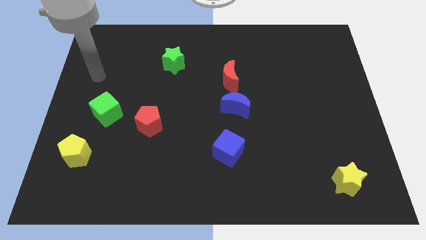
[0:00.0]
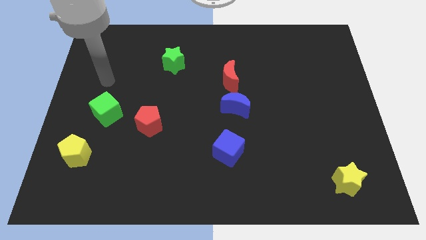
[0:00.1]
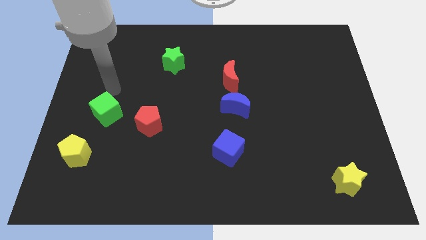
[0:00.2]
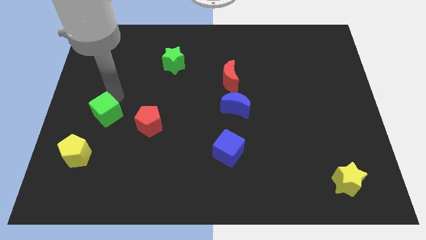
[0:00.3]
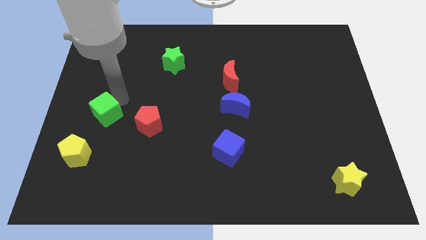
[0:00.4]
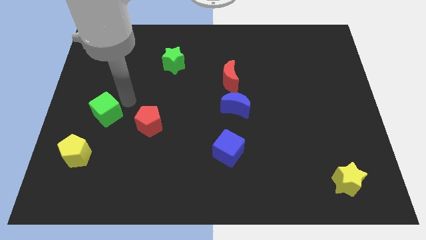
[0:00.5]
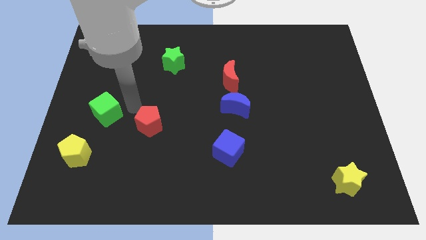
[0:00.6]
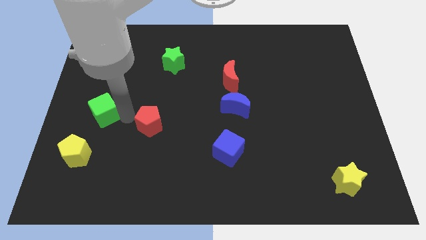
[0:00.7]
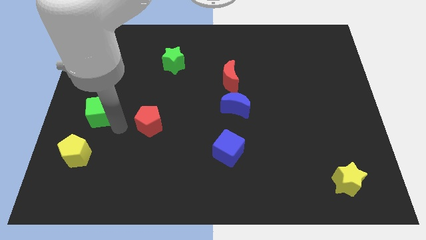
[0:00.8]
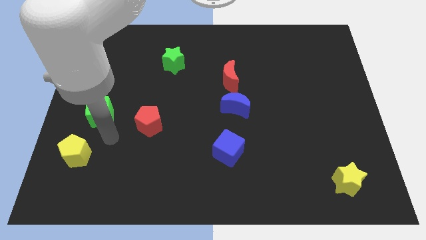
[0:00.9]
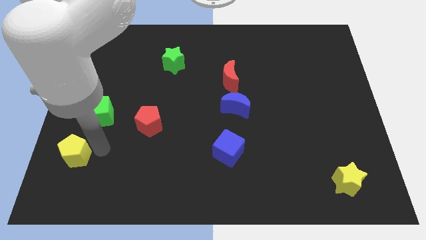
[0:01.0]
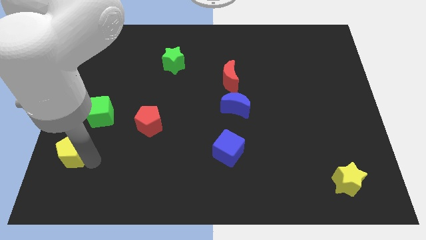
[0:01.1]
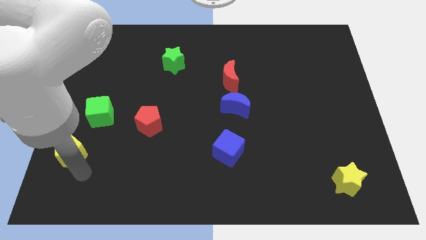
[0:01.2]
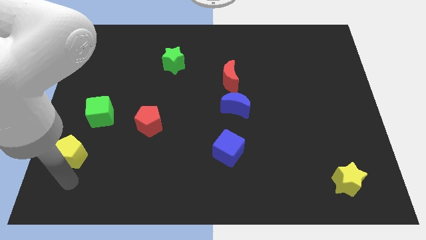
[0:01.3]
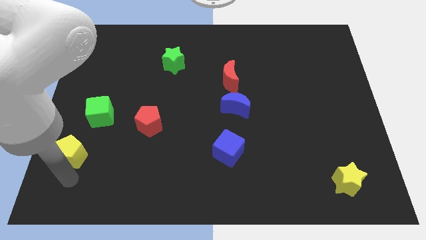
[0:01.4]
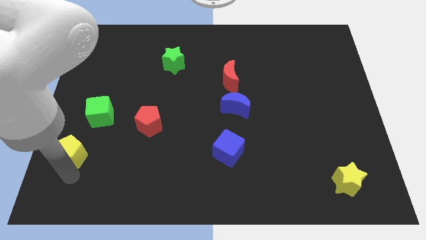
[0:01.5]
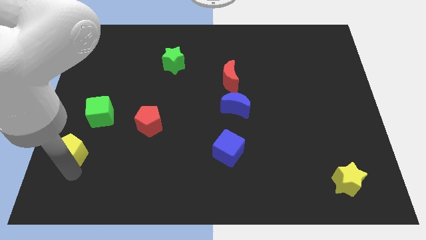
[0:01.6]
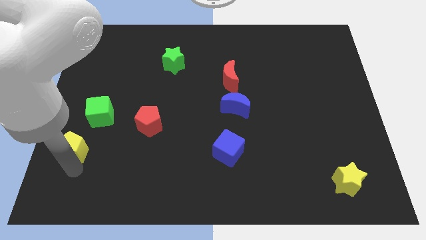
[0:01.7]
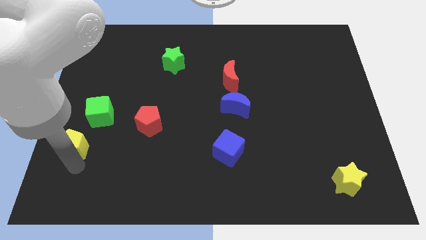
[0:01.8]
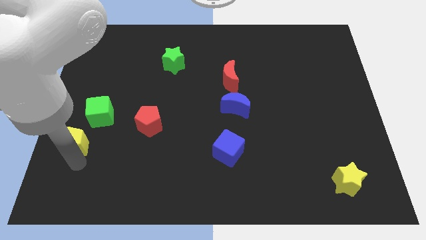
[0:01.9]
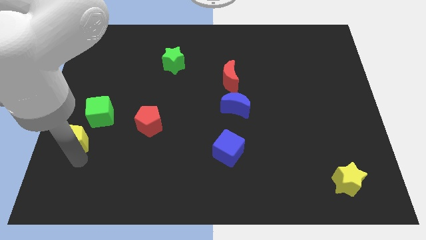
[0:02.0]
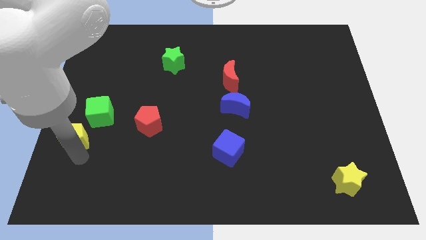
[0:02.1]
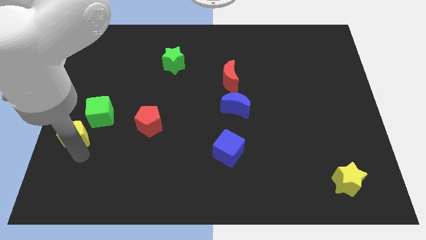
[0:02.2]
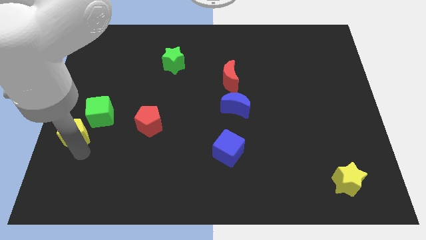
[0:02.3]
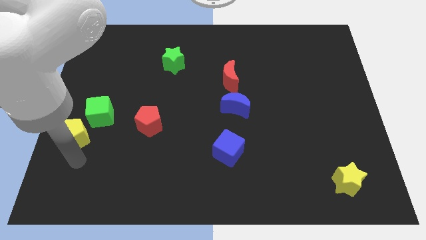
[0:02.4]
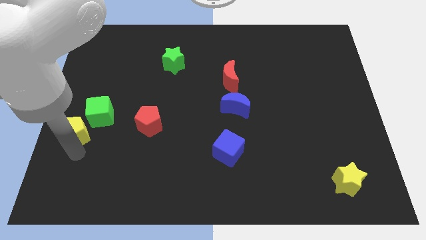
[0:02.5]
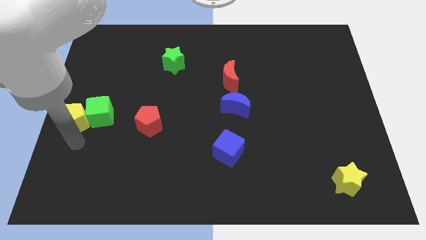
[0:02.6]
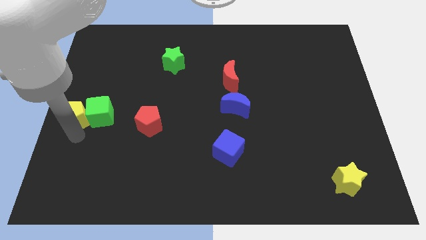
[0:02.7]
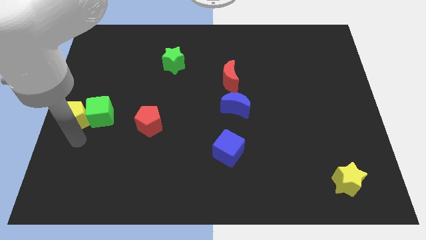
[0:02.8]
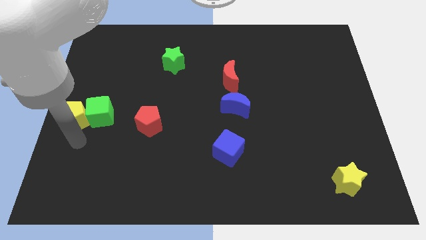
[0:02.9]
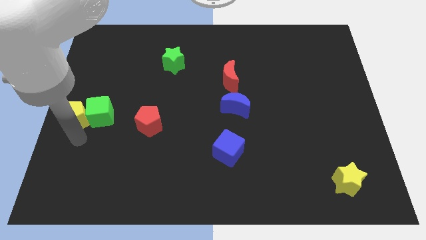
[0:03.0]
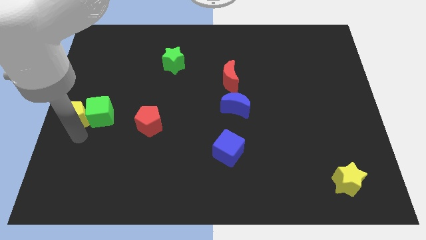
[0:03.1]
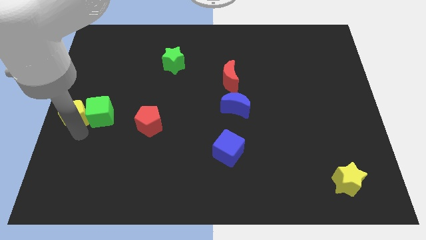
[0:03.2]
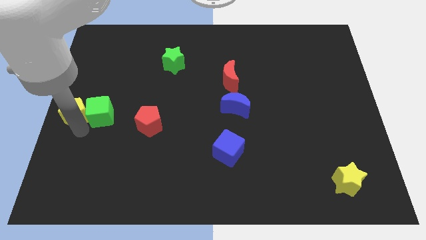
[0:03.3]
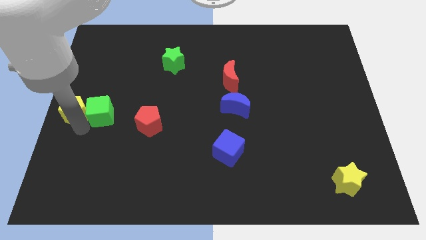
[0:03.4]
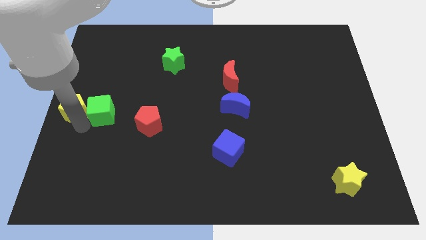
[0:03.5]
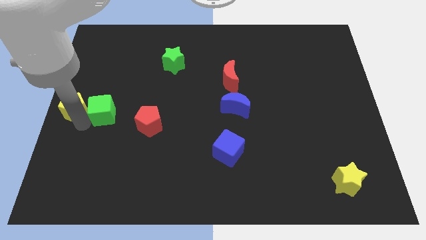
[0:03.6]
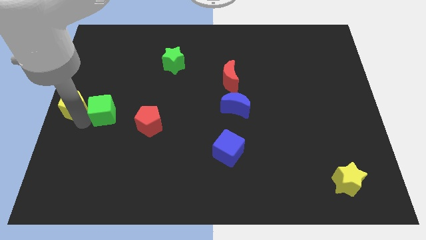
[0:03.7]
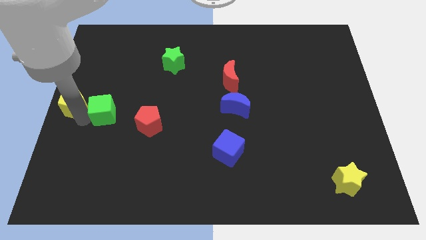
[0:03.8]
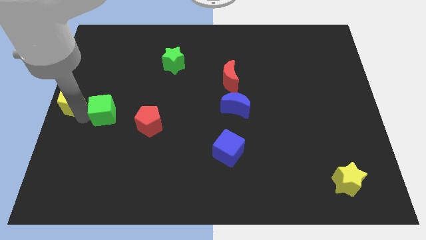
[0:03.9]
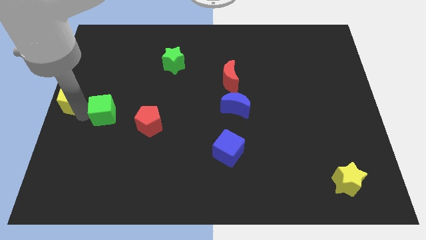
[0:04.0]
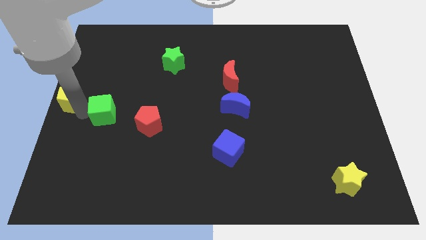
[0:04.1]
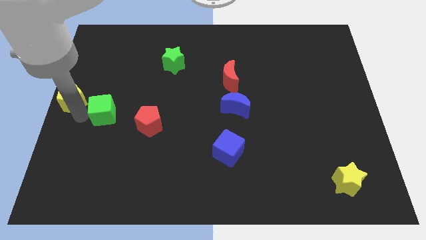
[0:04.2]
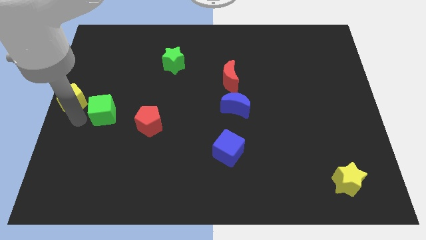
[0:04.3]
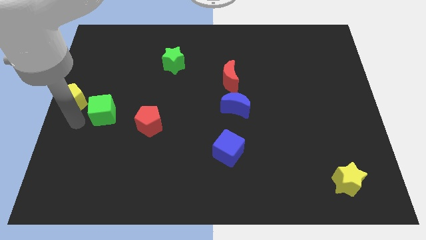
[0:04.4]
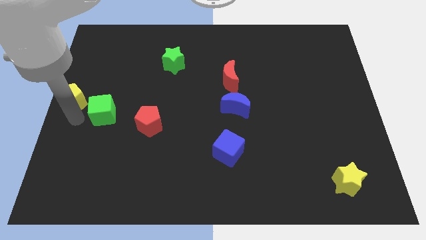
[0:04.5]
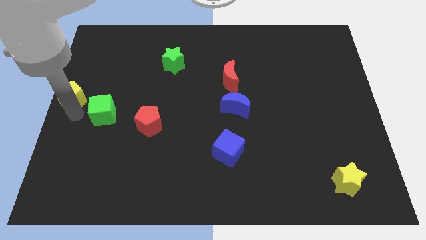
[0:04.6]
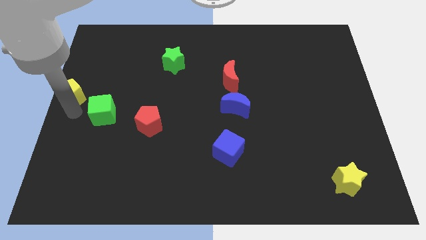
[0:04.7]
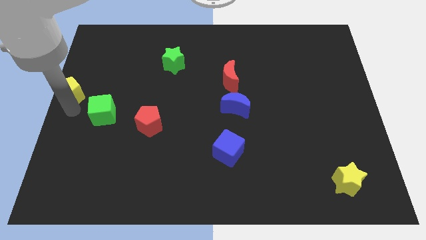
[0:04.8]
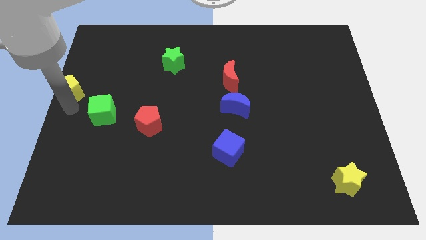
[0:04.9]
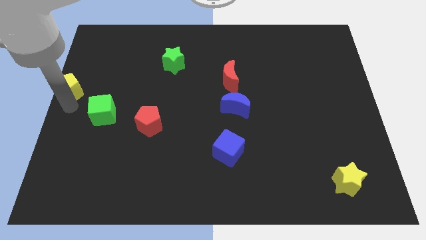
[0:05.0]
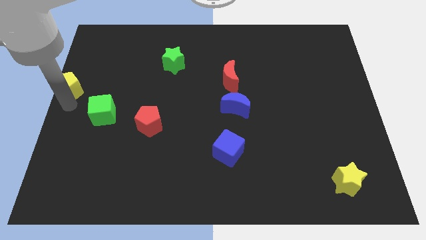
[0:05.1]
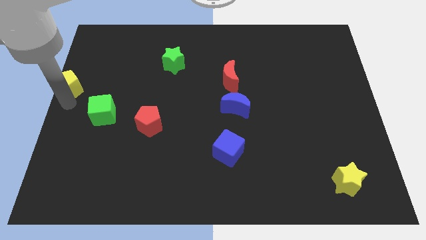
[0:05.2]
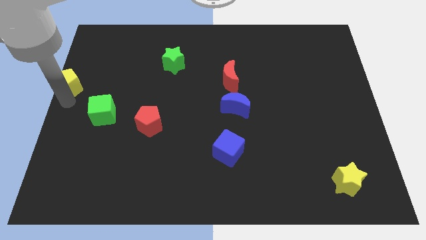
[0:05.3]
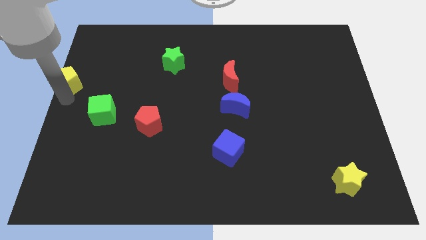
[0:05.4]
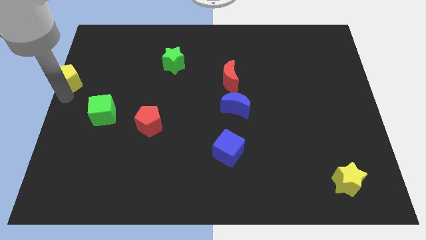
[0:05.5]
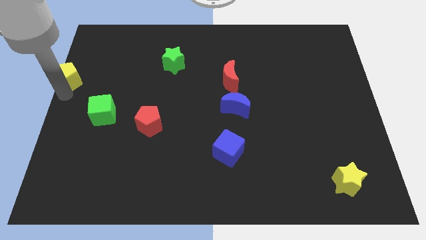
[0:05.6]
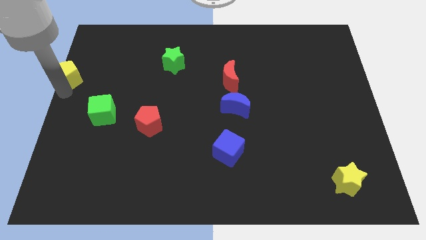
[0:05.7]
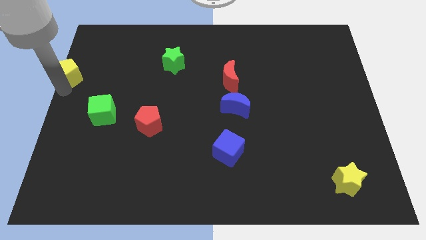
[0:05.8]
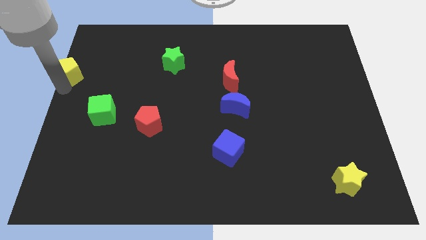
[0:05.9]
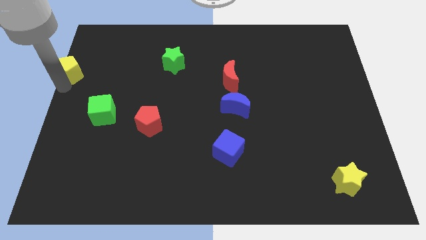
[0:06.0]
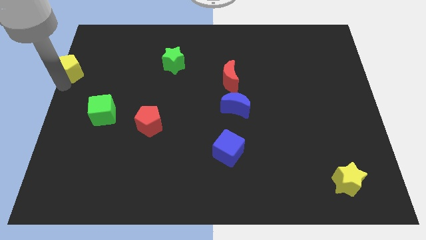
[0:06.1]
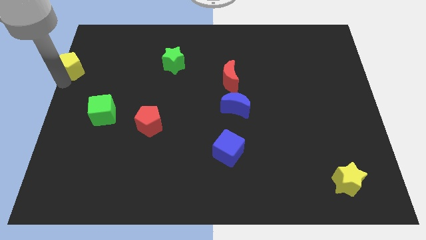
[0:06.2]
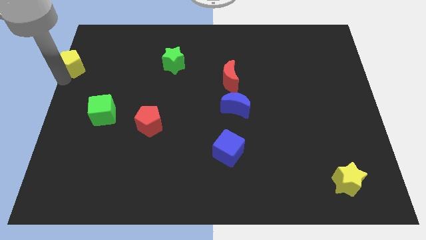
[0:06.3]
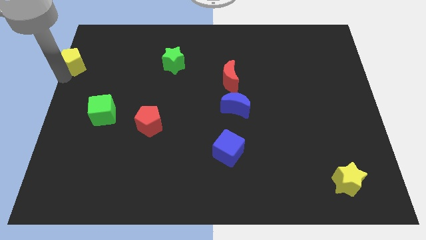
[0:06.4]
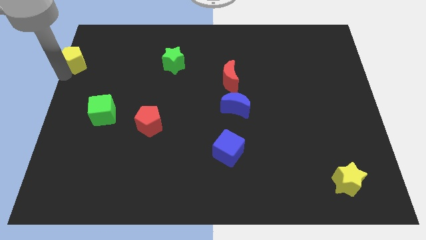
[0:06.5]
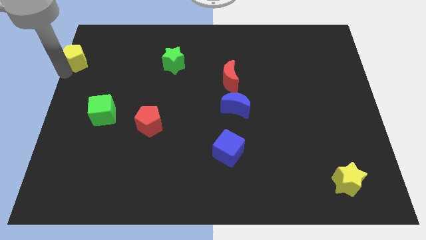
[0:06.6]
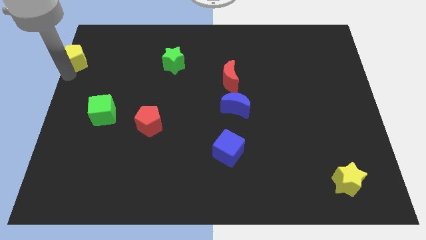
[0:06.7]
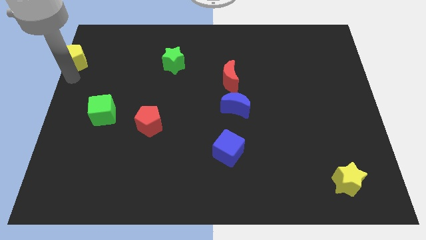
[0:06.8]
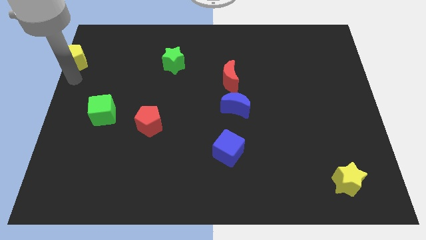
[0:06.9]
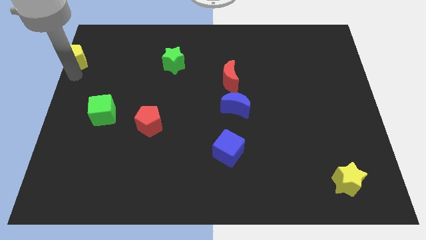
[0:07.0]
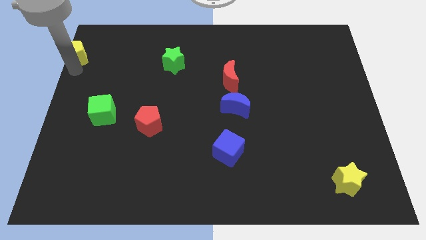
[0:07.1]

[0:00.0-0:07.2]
move the yellow pentagon to the top left
